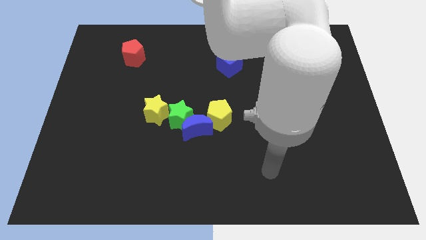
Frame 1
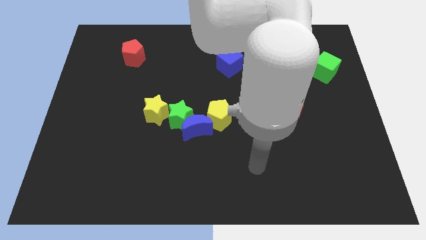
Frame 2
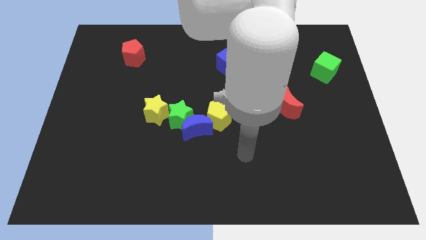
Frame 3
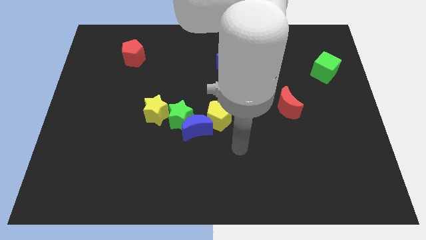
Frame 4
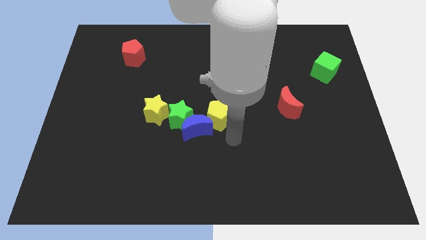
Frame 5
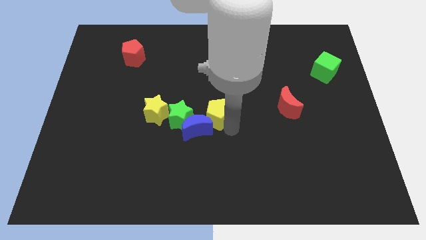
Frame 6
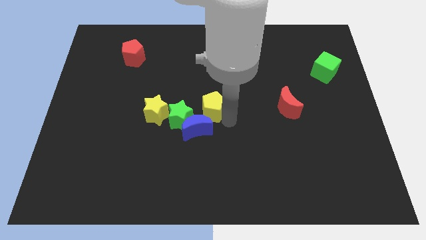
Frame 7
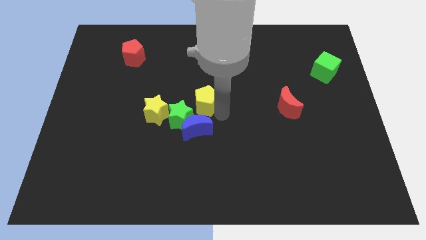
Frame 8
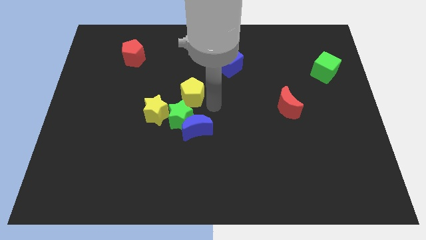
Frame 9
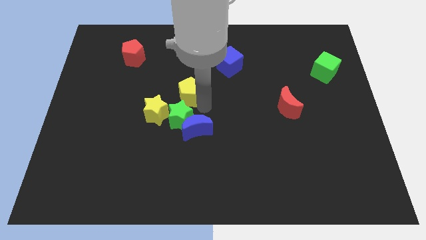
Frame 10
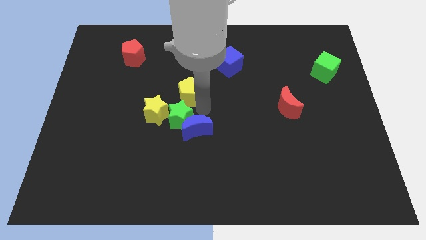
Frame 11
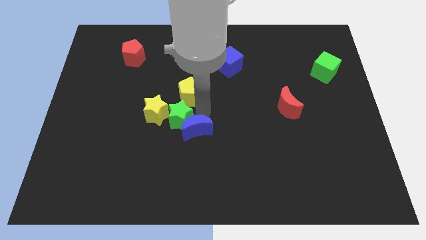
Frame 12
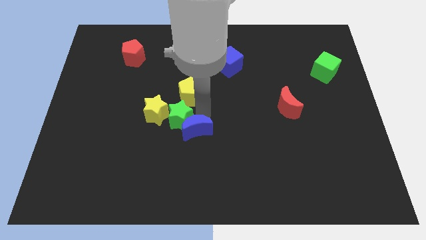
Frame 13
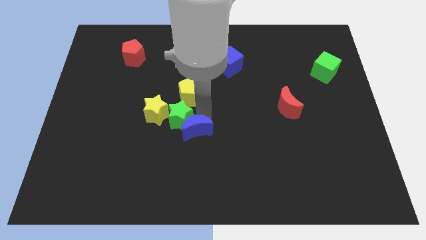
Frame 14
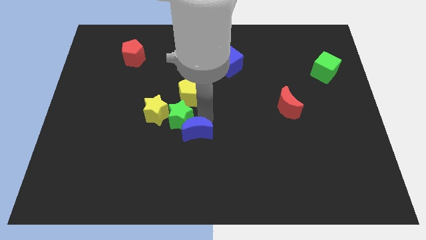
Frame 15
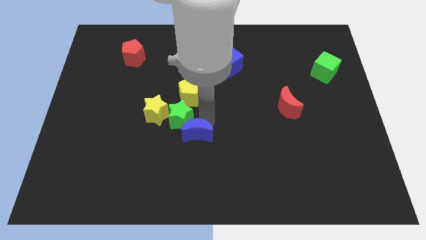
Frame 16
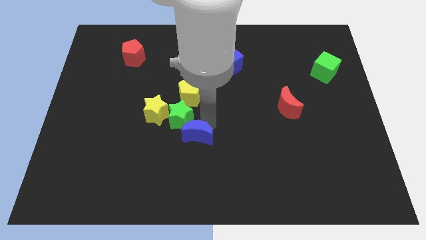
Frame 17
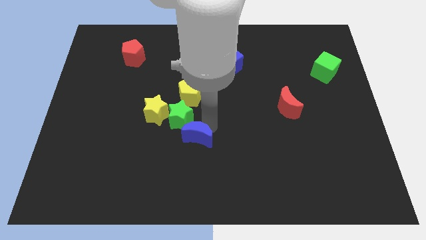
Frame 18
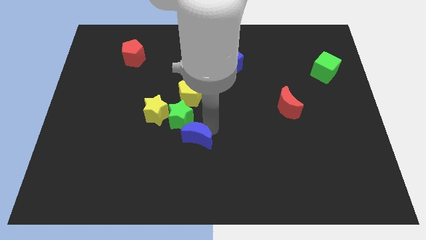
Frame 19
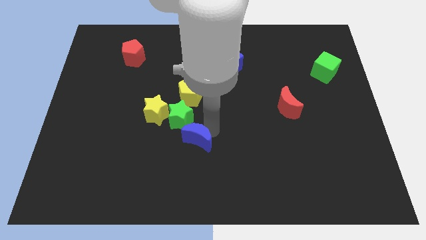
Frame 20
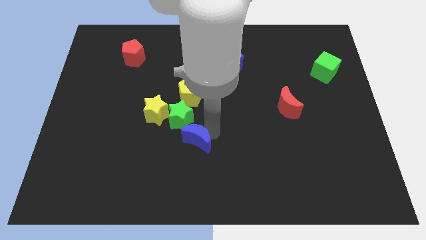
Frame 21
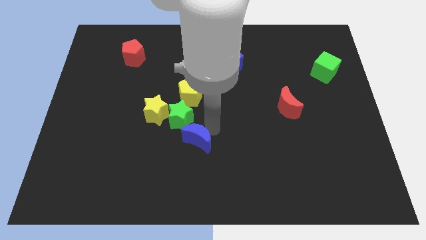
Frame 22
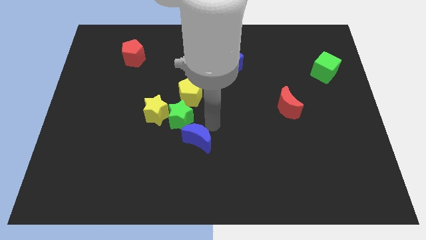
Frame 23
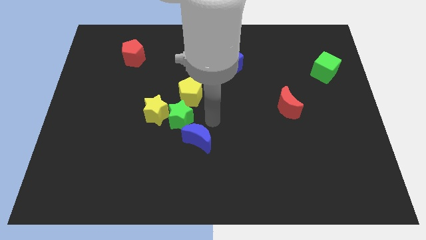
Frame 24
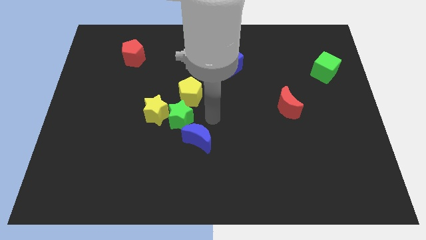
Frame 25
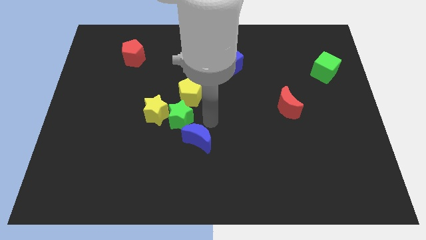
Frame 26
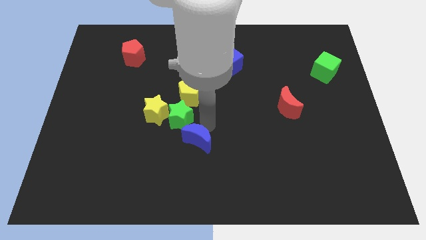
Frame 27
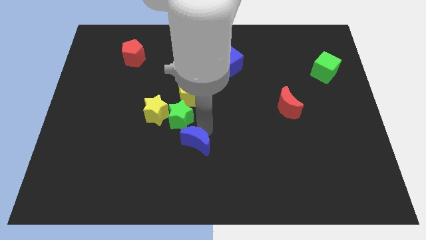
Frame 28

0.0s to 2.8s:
pull the blue moon apart from the green star and yellow pentagon

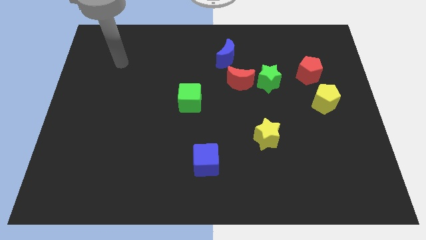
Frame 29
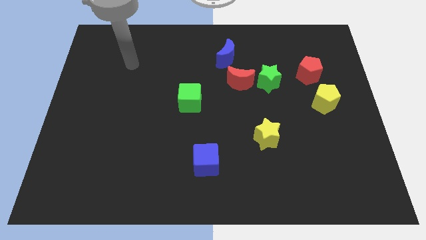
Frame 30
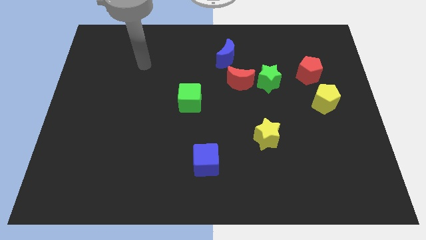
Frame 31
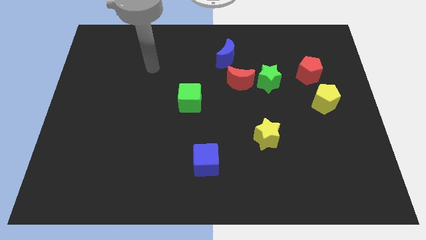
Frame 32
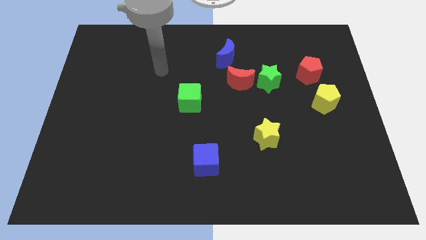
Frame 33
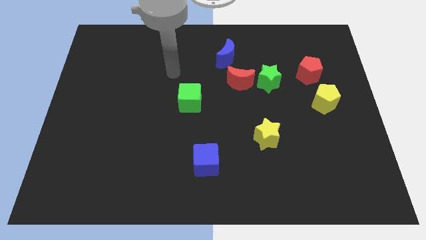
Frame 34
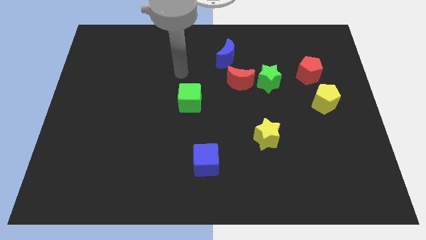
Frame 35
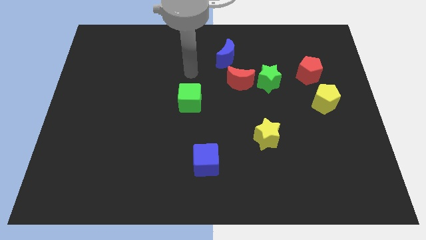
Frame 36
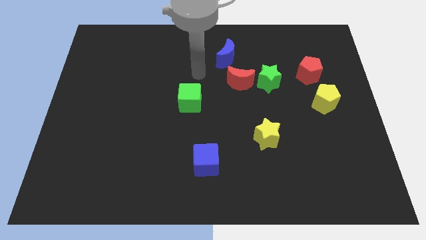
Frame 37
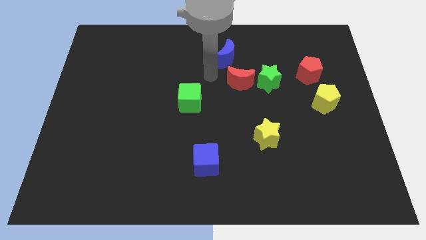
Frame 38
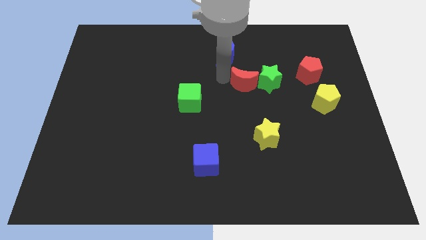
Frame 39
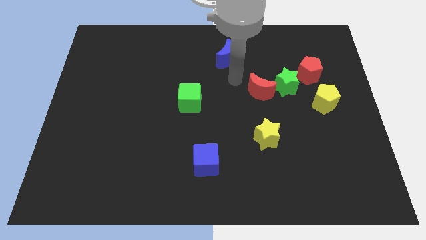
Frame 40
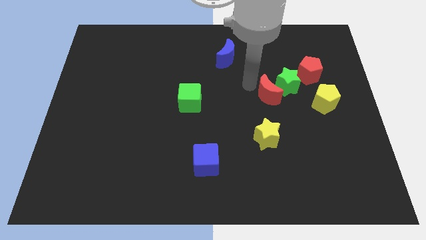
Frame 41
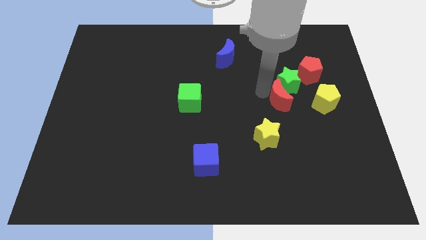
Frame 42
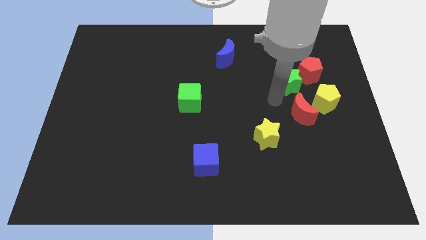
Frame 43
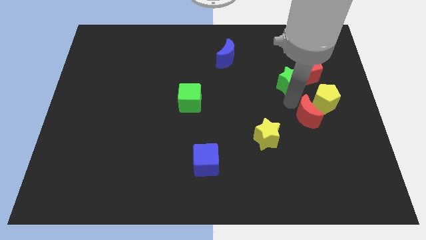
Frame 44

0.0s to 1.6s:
move the green star away from the red moon

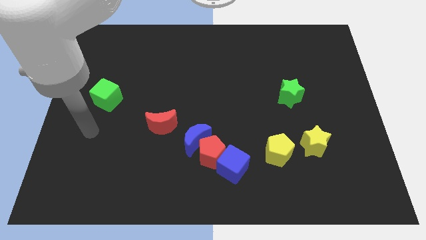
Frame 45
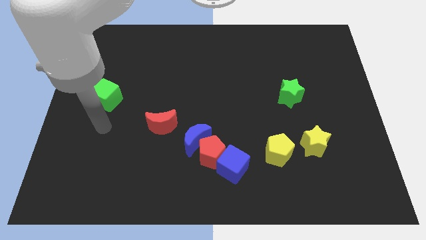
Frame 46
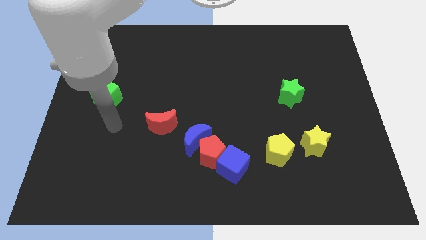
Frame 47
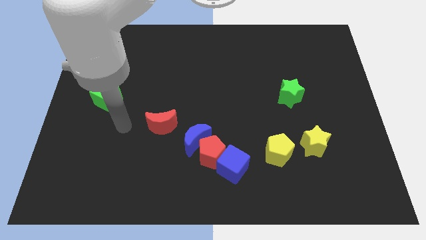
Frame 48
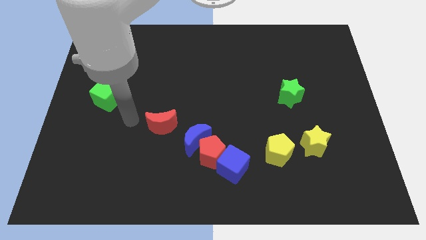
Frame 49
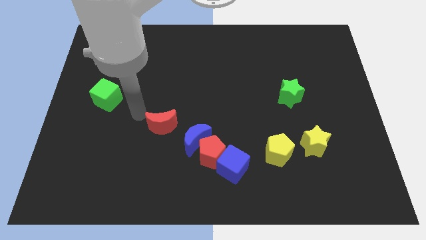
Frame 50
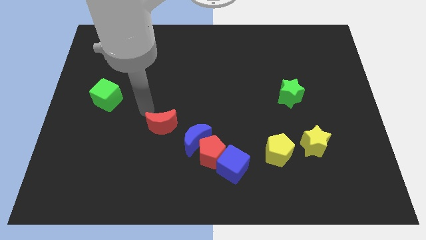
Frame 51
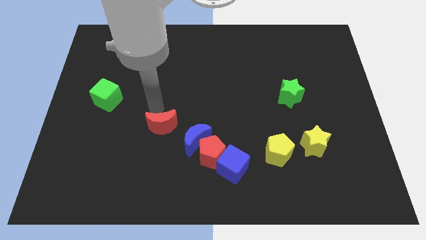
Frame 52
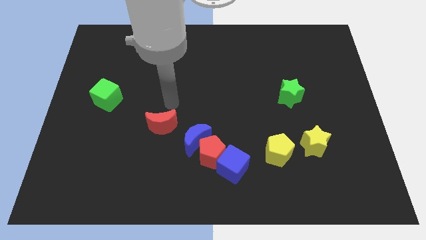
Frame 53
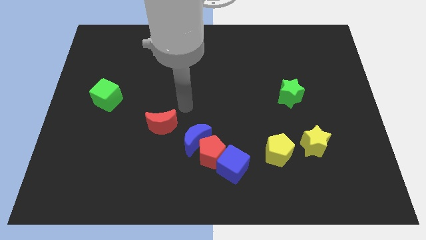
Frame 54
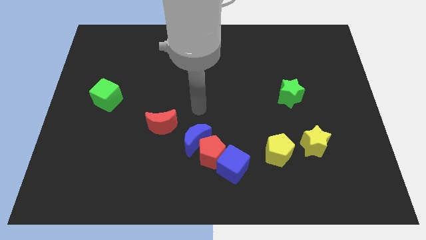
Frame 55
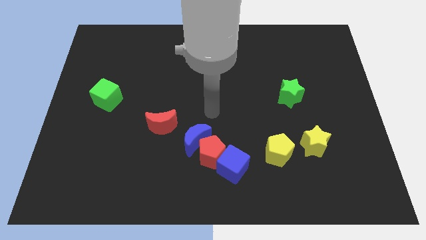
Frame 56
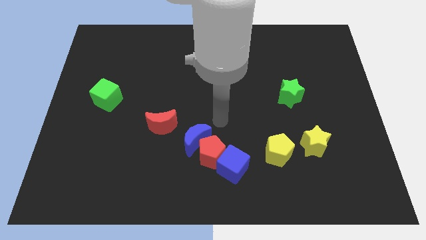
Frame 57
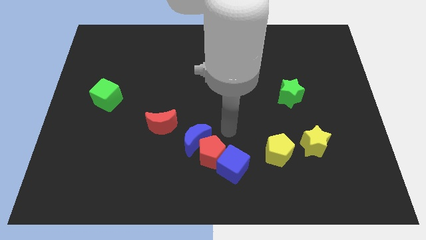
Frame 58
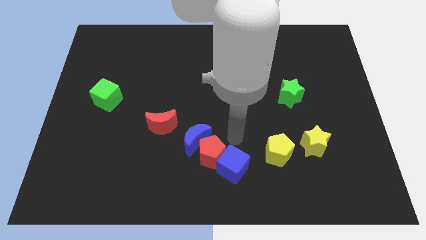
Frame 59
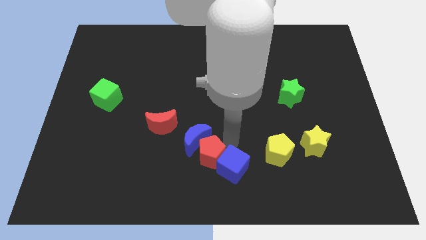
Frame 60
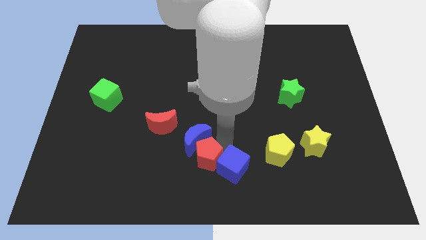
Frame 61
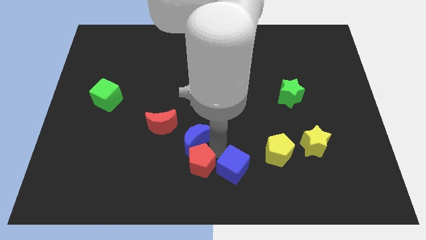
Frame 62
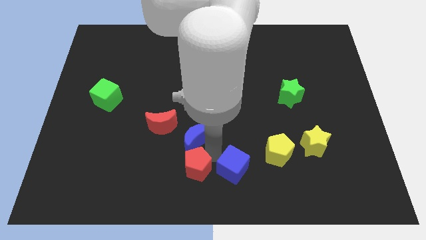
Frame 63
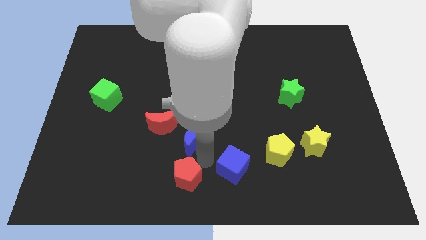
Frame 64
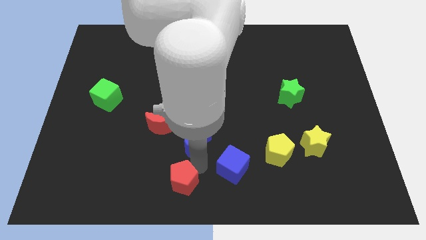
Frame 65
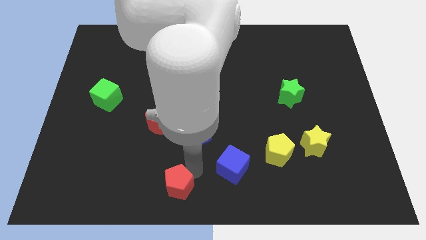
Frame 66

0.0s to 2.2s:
pull the red pentagon apart from the blue moon and blue cube

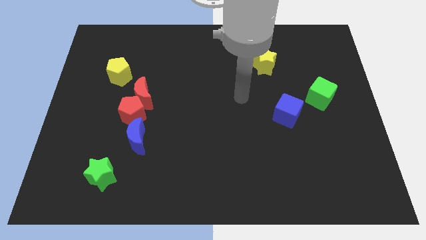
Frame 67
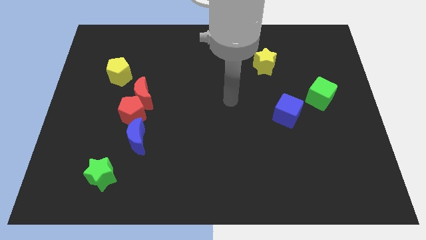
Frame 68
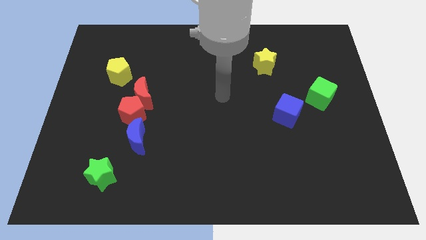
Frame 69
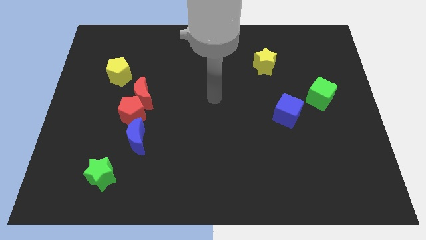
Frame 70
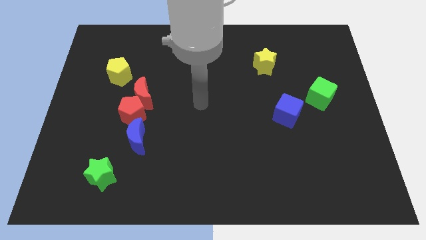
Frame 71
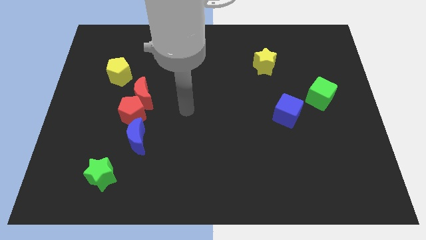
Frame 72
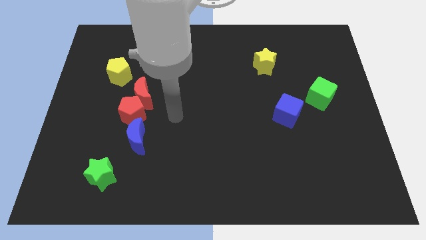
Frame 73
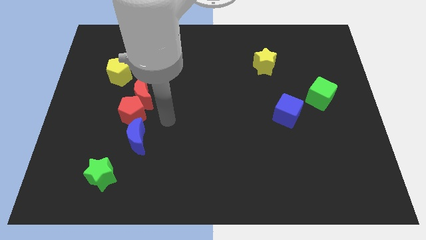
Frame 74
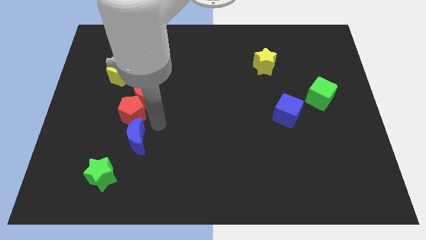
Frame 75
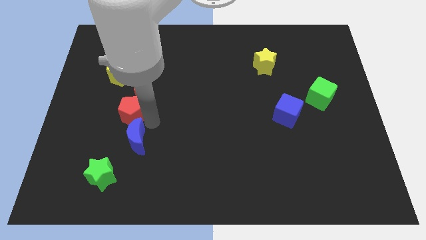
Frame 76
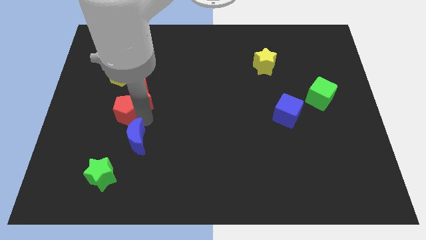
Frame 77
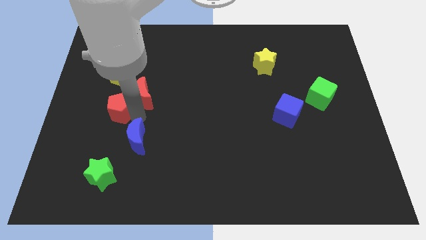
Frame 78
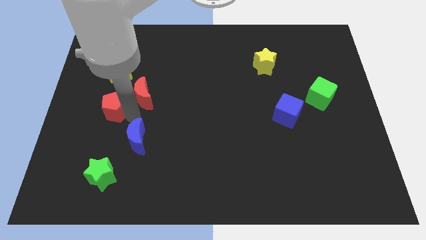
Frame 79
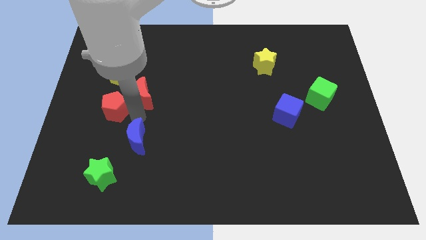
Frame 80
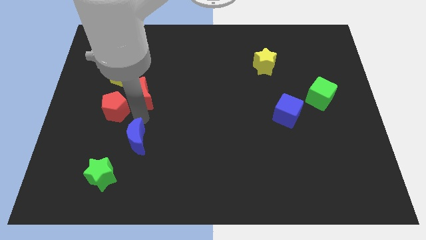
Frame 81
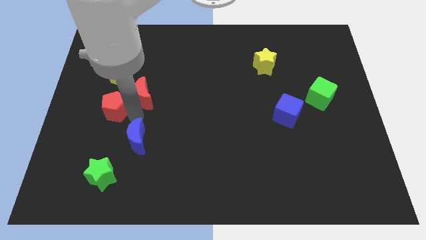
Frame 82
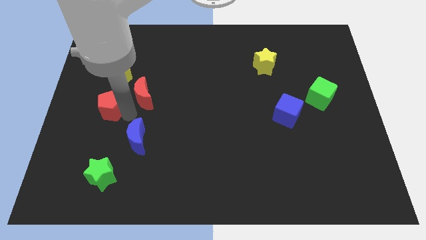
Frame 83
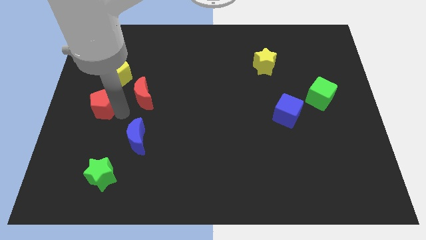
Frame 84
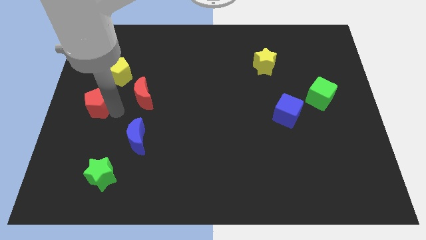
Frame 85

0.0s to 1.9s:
move the red pentagon away from the red moon and blue moon

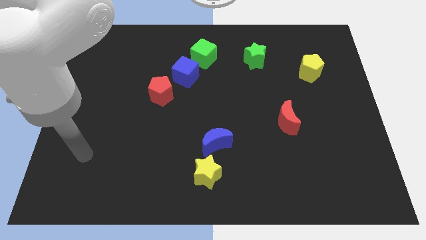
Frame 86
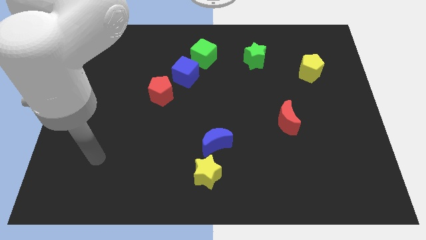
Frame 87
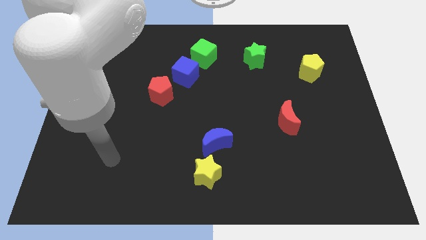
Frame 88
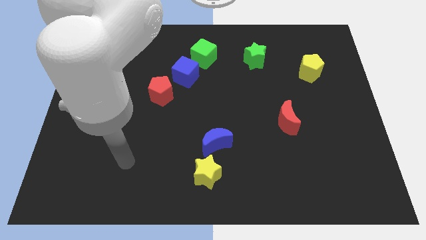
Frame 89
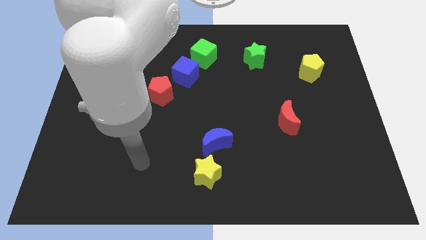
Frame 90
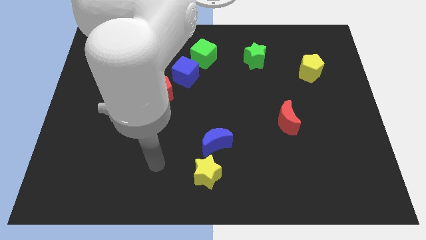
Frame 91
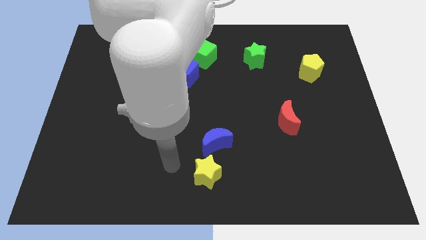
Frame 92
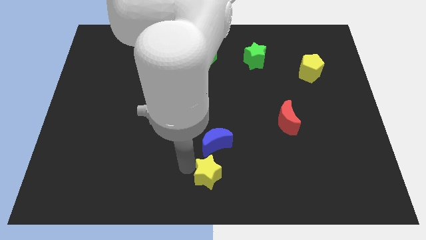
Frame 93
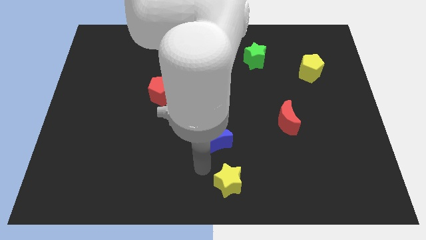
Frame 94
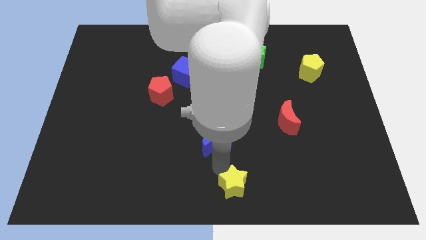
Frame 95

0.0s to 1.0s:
pull the blue moon apart from the yellow star
